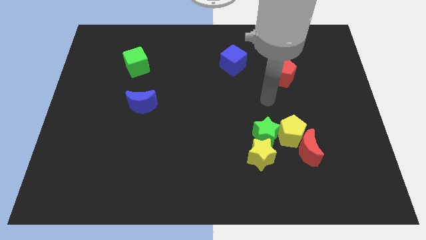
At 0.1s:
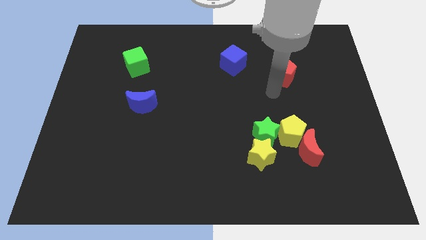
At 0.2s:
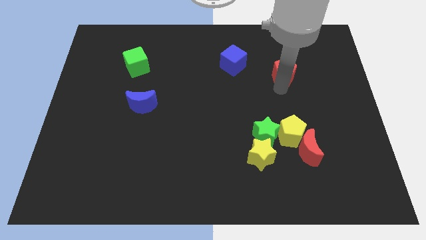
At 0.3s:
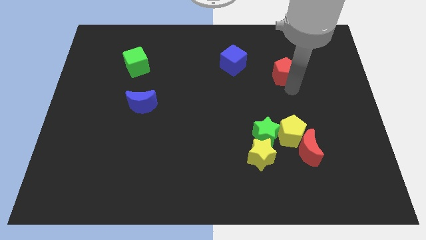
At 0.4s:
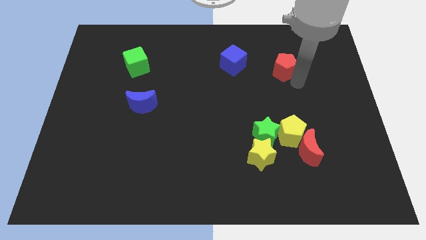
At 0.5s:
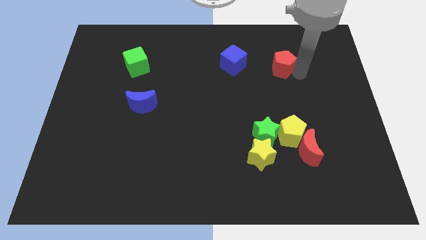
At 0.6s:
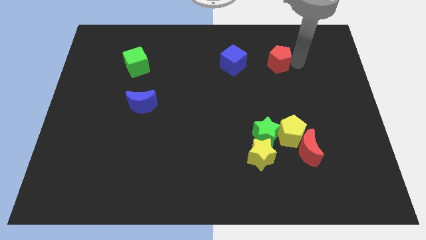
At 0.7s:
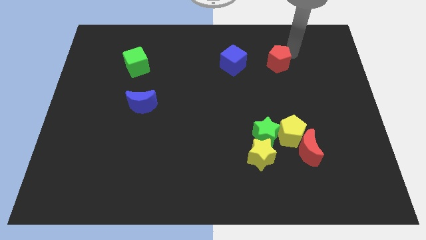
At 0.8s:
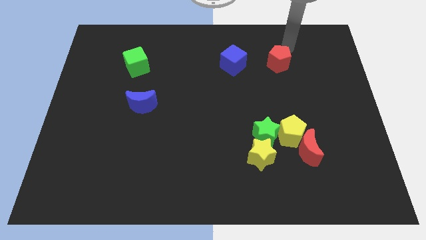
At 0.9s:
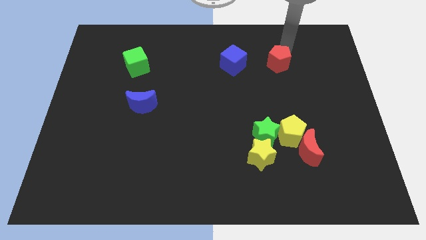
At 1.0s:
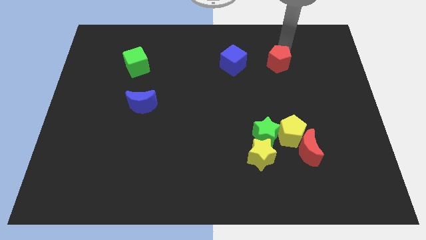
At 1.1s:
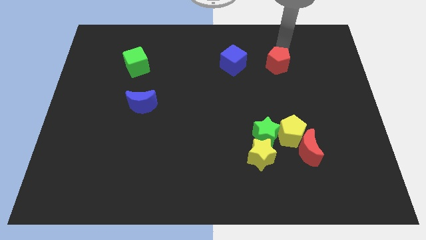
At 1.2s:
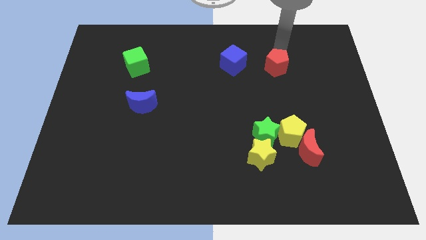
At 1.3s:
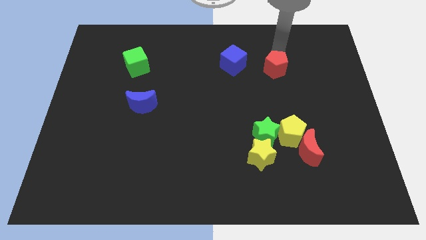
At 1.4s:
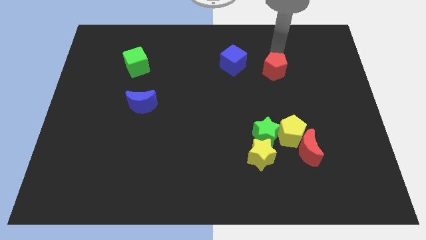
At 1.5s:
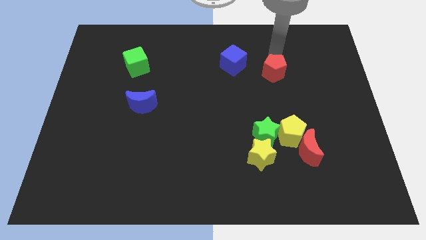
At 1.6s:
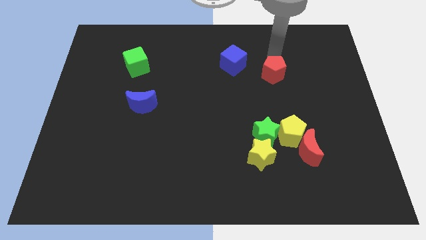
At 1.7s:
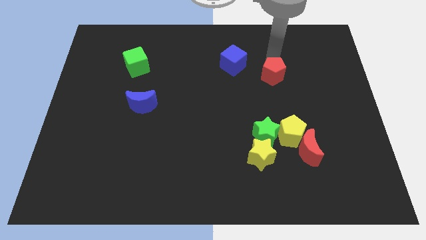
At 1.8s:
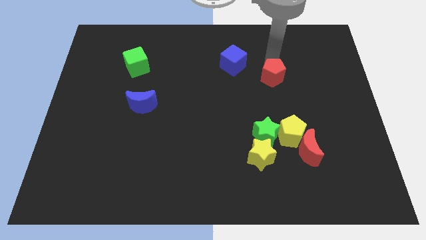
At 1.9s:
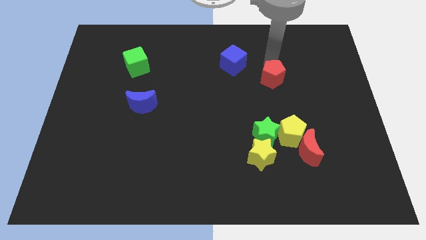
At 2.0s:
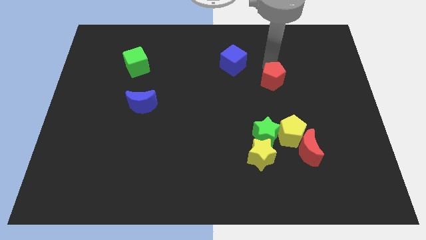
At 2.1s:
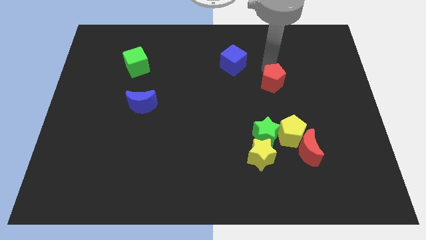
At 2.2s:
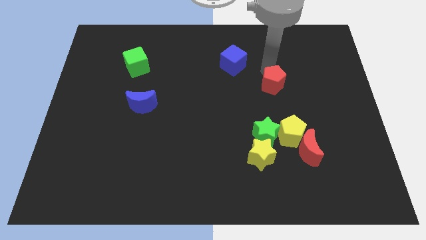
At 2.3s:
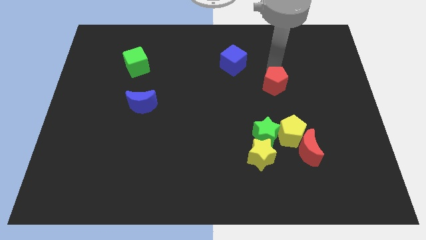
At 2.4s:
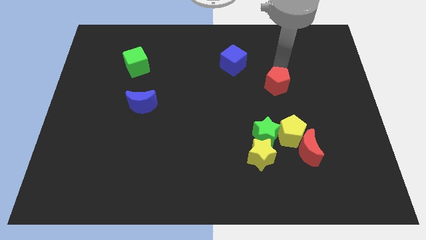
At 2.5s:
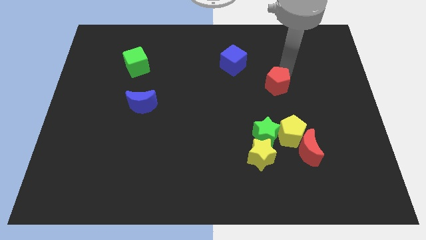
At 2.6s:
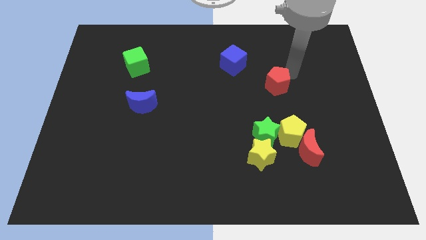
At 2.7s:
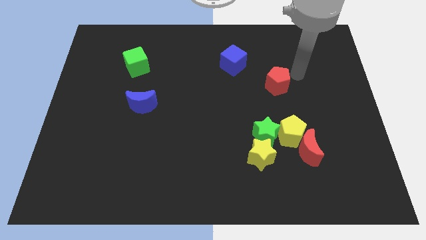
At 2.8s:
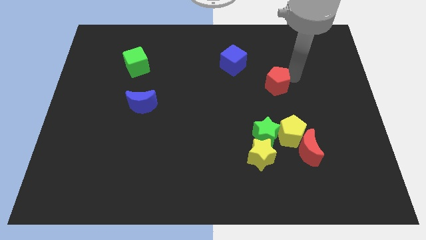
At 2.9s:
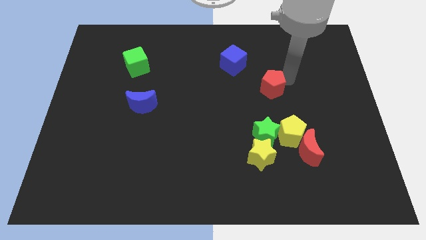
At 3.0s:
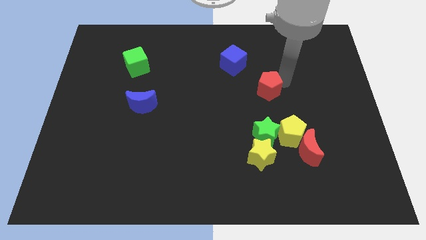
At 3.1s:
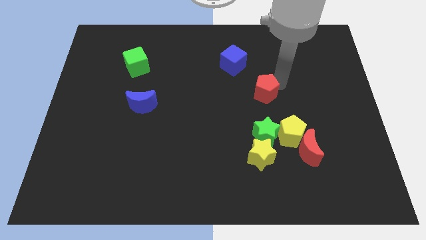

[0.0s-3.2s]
move the red pentagon a little downwards and left diagonally

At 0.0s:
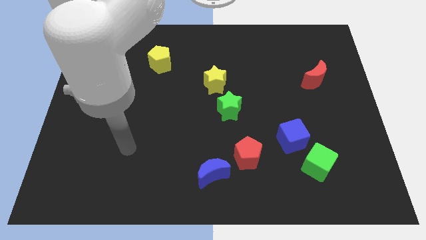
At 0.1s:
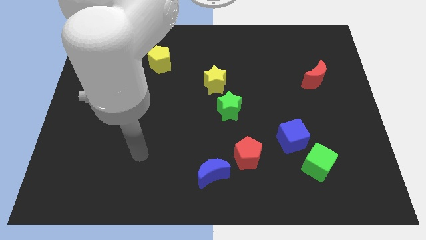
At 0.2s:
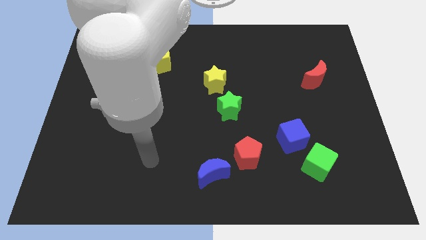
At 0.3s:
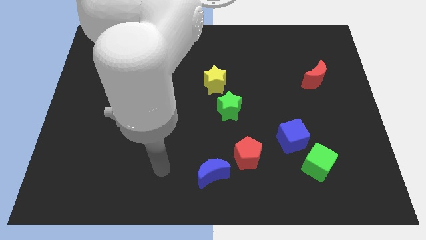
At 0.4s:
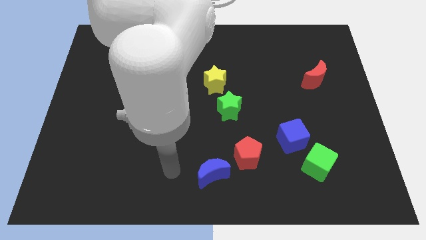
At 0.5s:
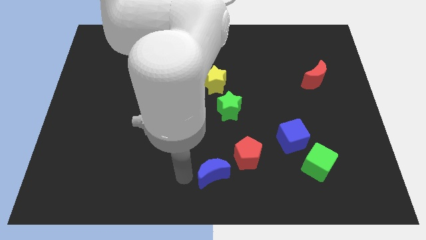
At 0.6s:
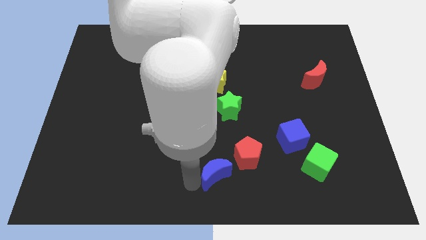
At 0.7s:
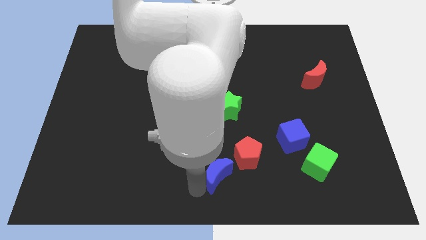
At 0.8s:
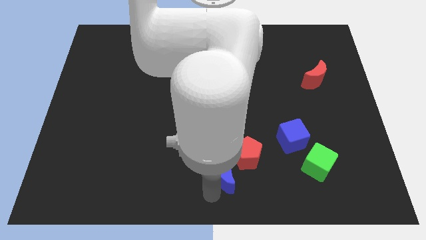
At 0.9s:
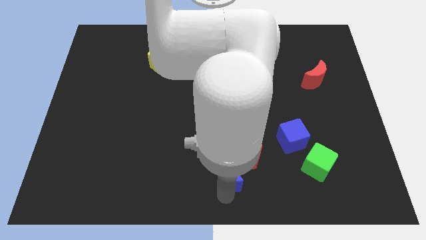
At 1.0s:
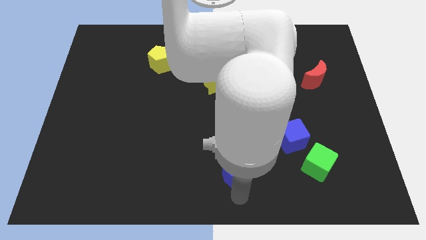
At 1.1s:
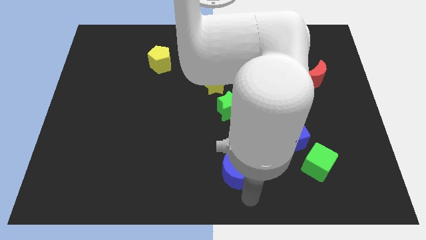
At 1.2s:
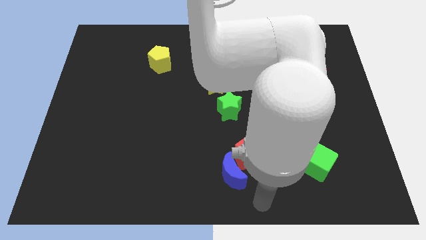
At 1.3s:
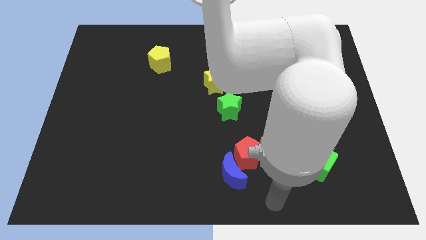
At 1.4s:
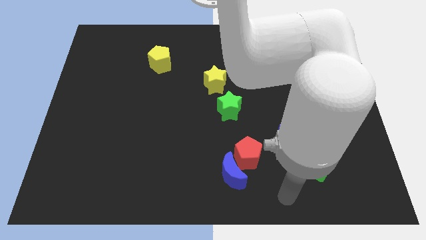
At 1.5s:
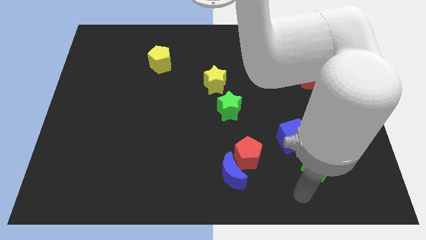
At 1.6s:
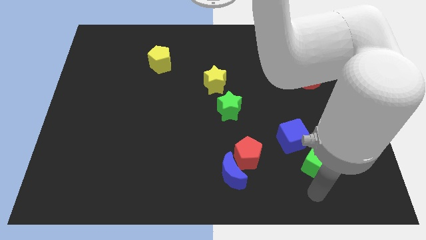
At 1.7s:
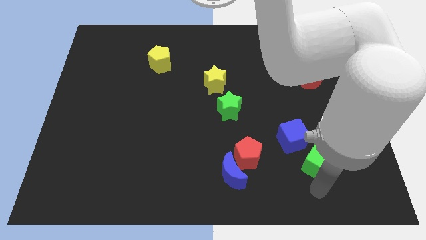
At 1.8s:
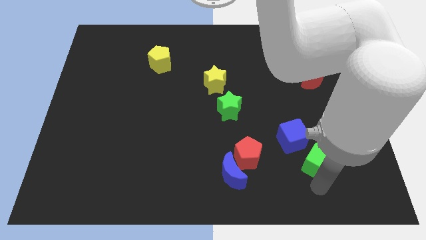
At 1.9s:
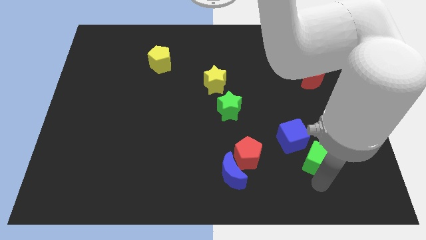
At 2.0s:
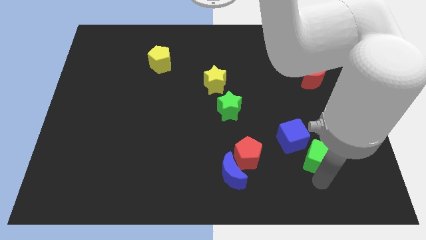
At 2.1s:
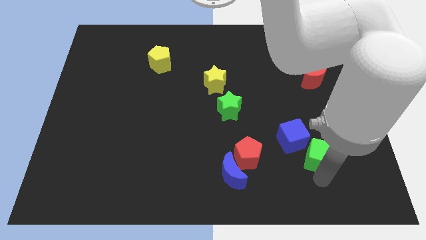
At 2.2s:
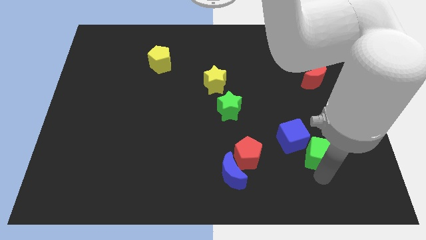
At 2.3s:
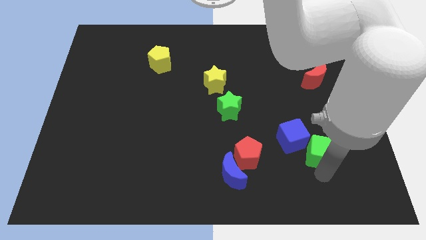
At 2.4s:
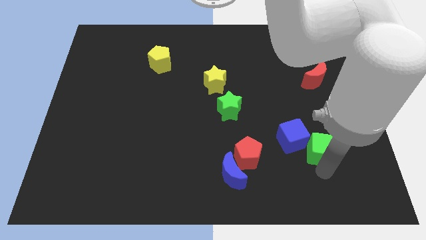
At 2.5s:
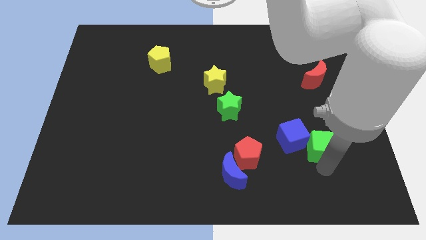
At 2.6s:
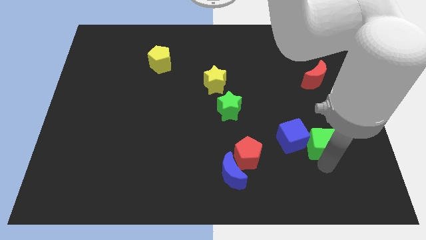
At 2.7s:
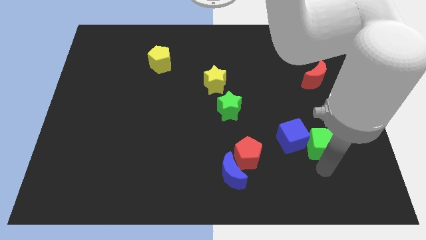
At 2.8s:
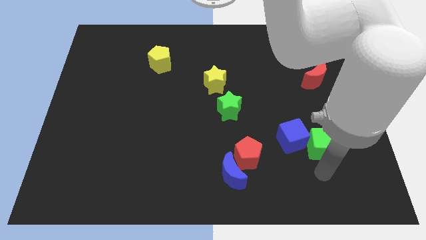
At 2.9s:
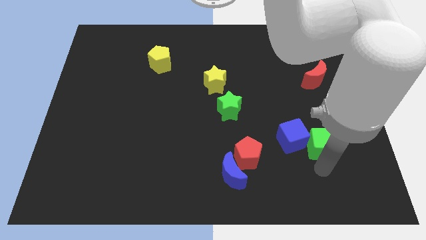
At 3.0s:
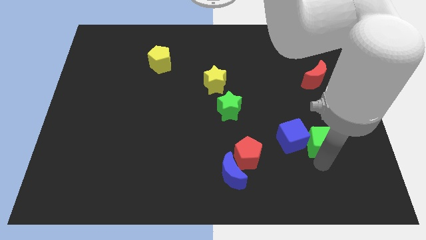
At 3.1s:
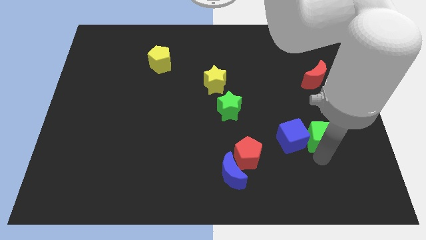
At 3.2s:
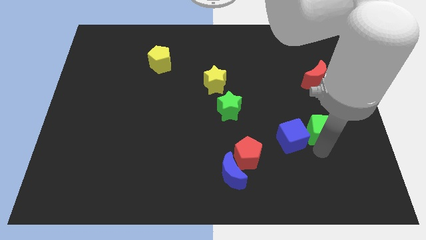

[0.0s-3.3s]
slightly push the green cube upwards

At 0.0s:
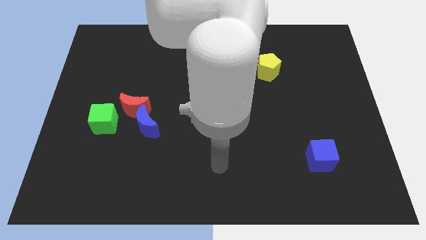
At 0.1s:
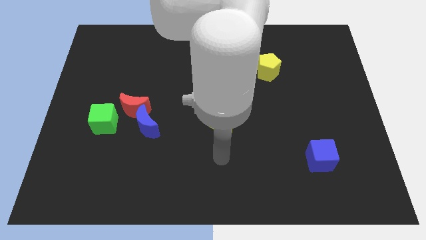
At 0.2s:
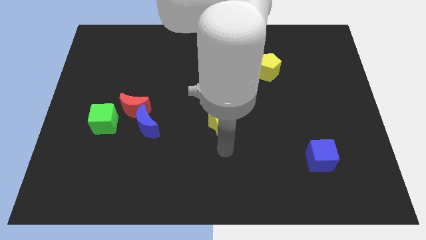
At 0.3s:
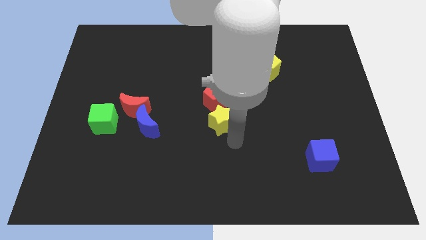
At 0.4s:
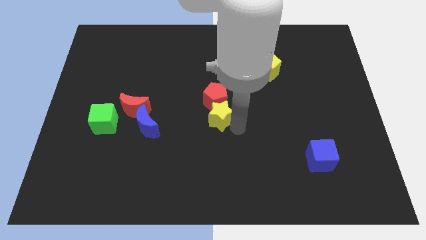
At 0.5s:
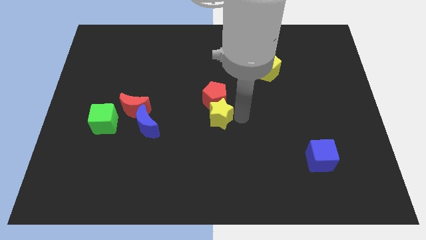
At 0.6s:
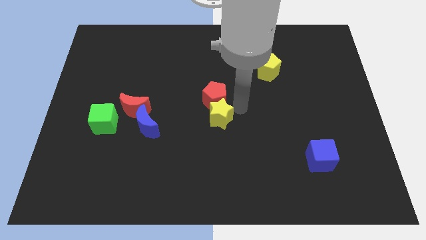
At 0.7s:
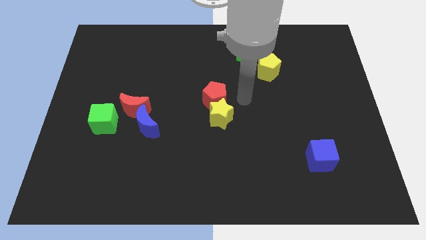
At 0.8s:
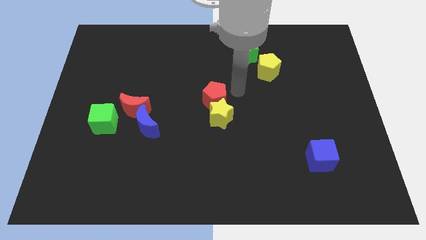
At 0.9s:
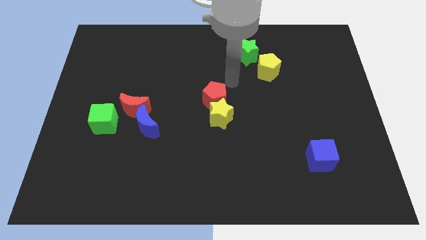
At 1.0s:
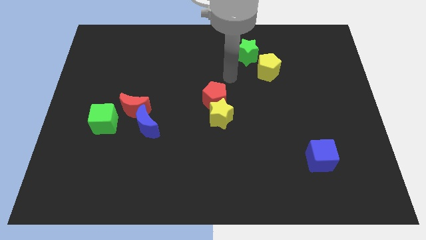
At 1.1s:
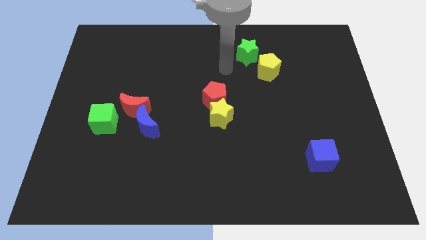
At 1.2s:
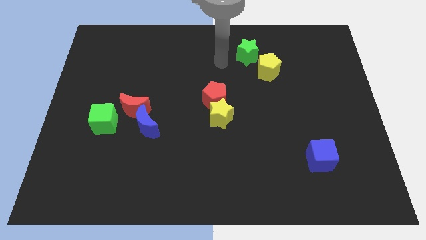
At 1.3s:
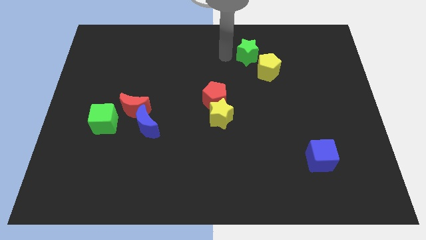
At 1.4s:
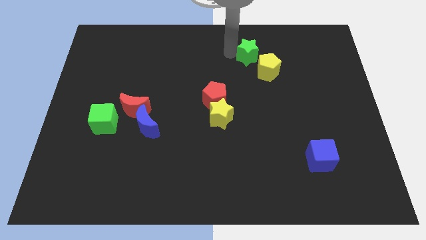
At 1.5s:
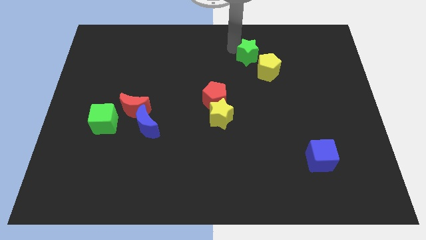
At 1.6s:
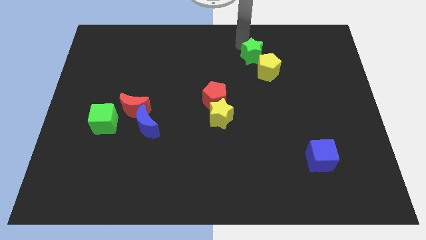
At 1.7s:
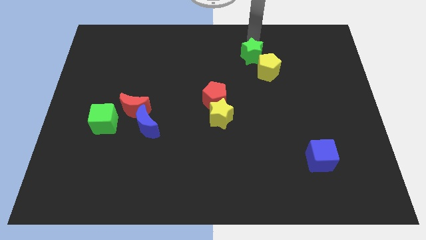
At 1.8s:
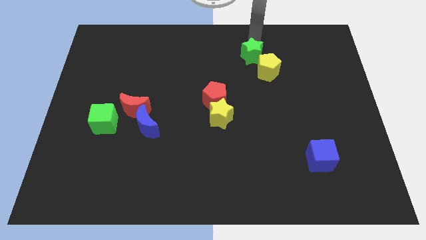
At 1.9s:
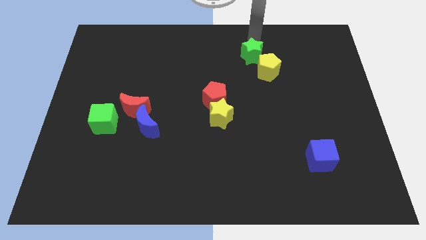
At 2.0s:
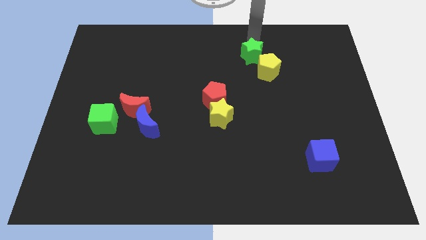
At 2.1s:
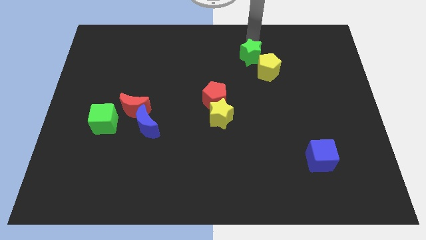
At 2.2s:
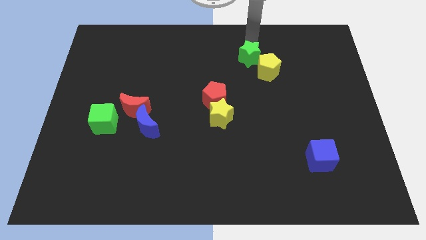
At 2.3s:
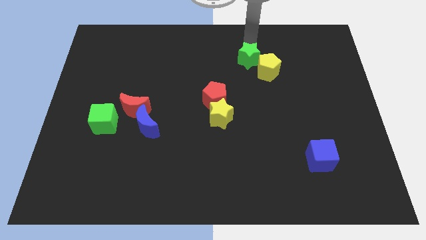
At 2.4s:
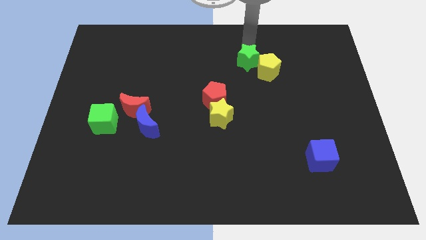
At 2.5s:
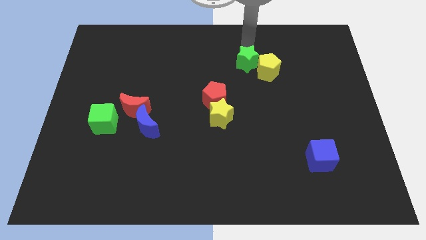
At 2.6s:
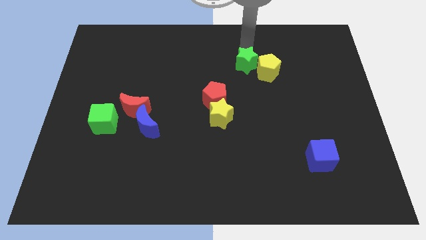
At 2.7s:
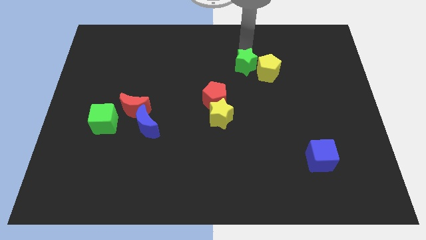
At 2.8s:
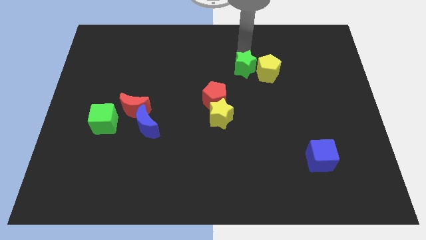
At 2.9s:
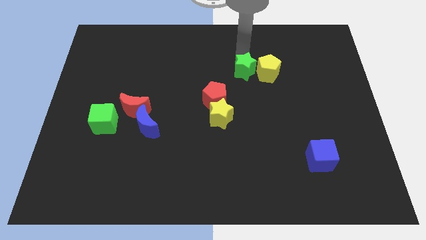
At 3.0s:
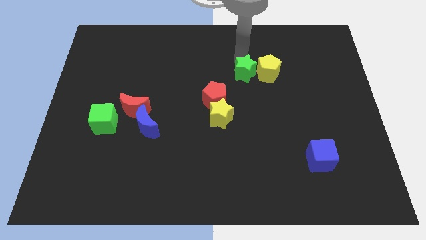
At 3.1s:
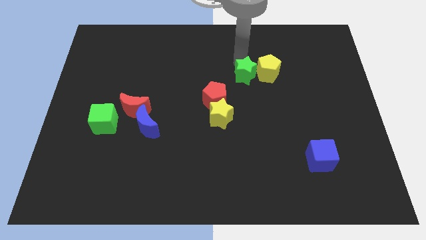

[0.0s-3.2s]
slightly move the green star down
